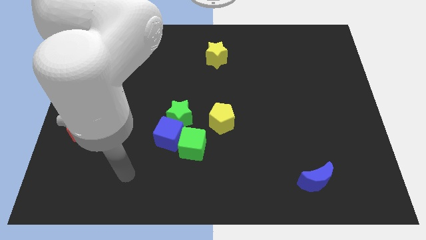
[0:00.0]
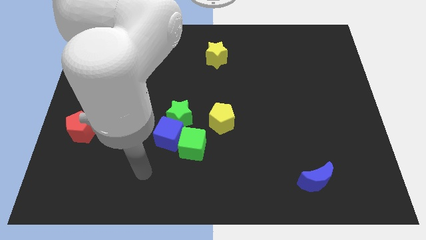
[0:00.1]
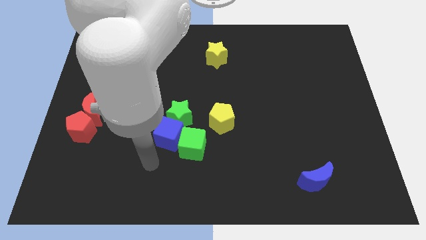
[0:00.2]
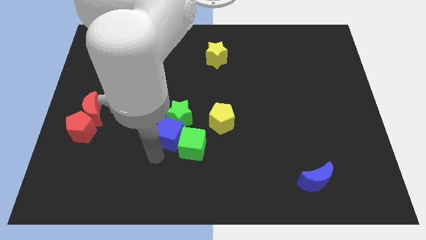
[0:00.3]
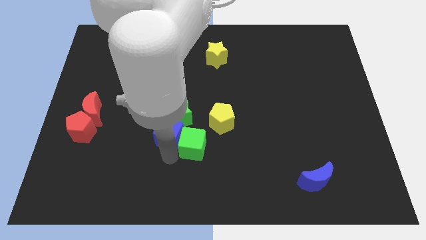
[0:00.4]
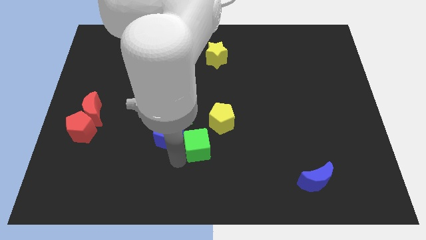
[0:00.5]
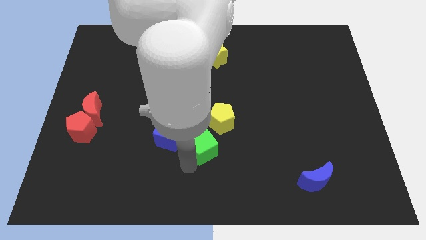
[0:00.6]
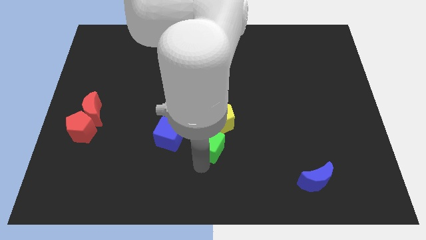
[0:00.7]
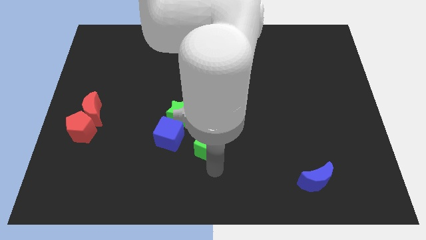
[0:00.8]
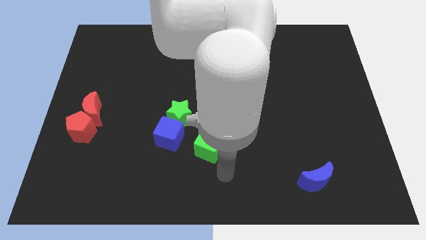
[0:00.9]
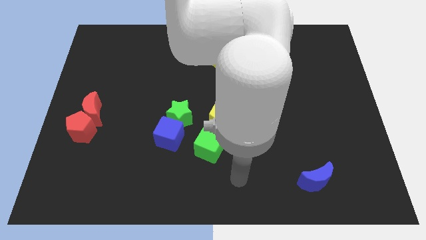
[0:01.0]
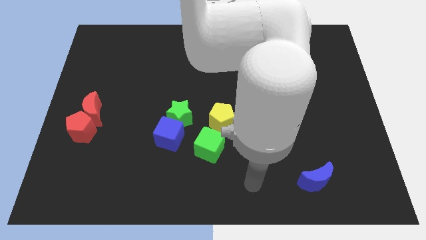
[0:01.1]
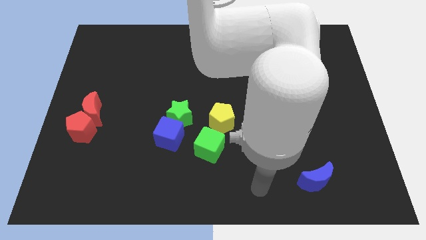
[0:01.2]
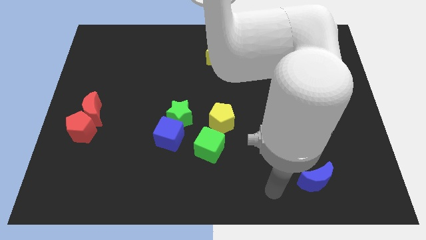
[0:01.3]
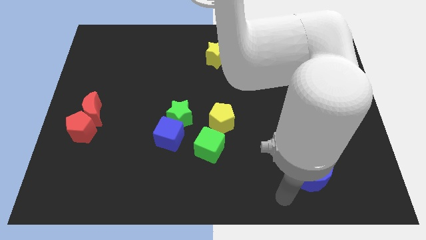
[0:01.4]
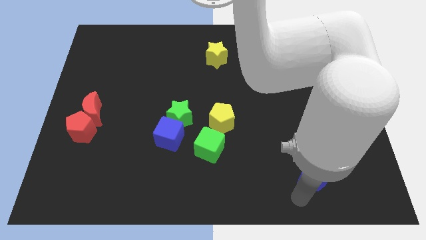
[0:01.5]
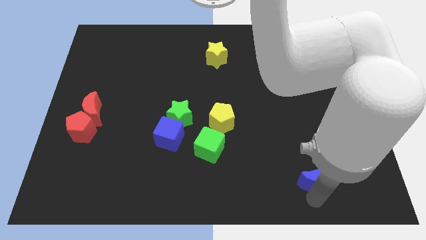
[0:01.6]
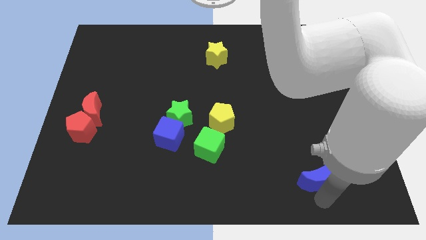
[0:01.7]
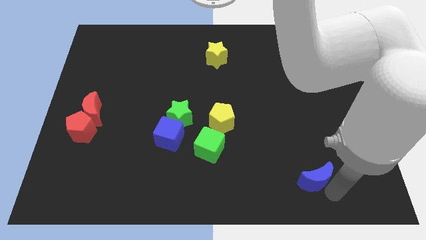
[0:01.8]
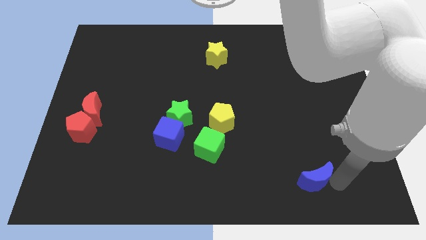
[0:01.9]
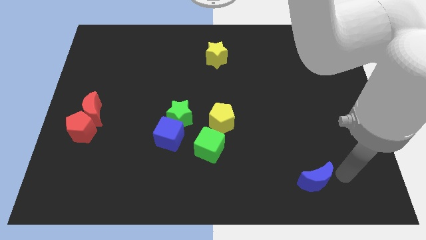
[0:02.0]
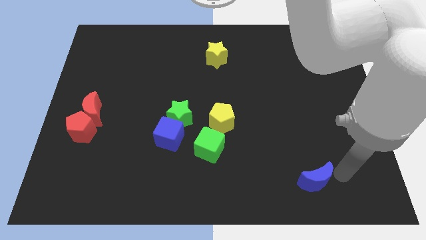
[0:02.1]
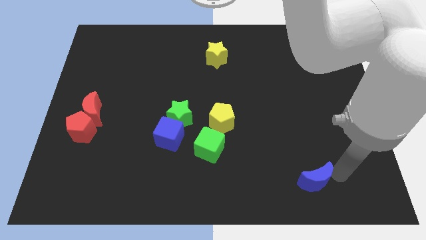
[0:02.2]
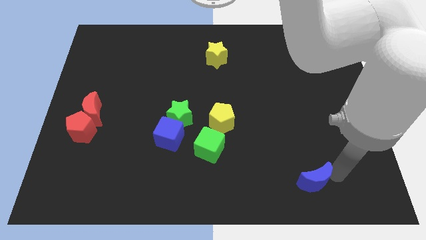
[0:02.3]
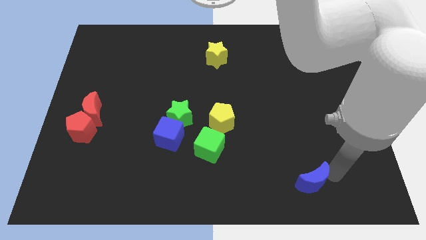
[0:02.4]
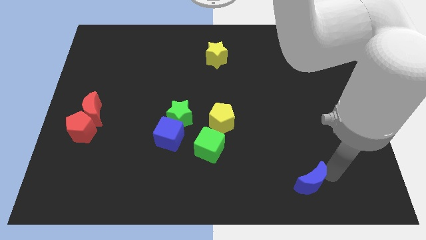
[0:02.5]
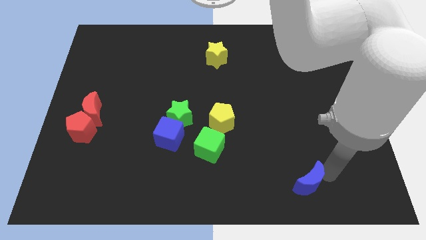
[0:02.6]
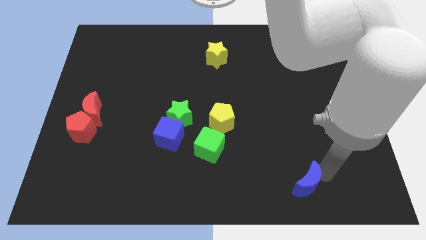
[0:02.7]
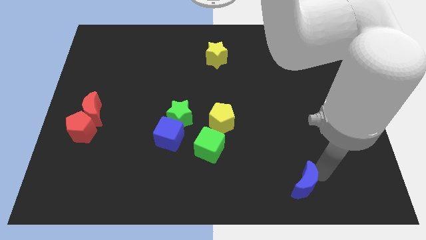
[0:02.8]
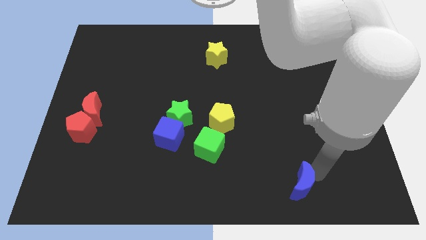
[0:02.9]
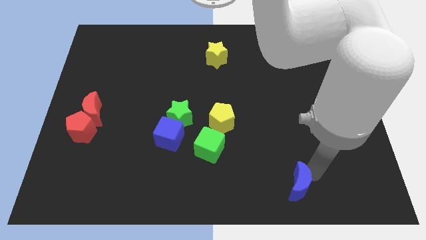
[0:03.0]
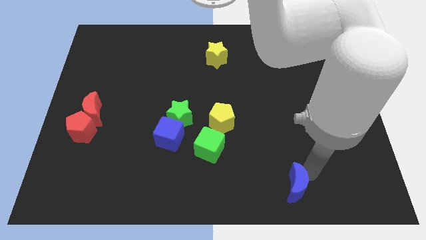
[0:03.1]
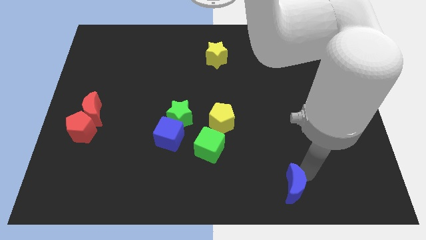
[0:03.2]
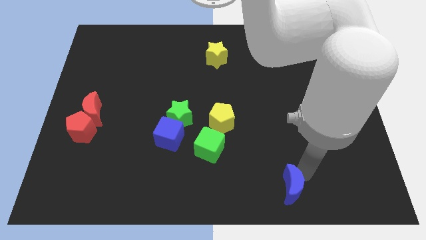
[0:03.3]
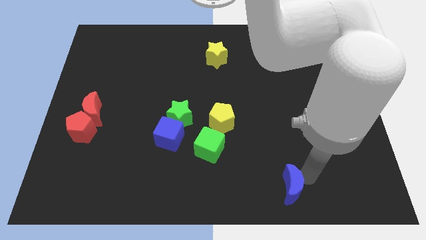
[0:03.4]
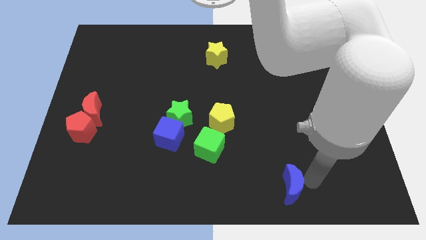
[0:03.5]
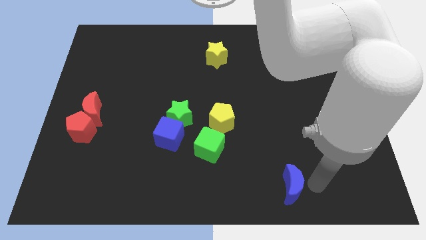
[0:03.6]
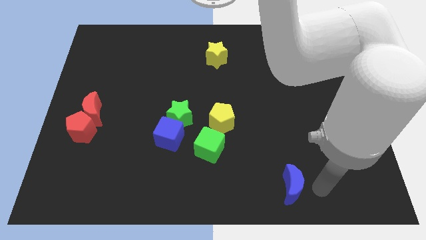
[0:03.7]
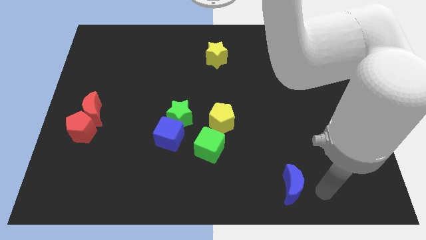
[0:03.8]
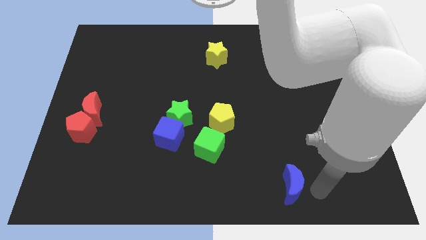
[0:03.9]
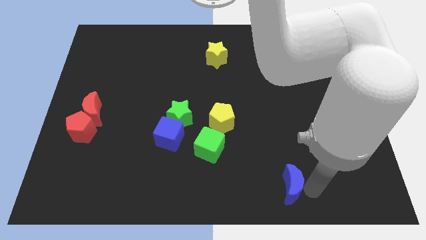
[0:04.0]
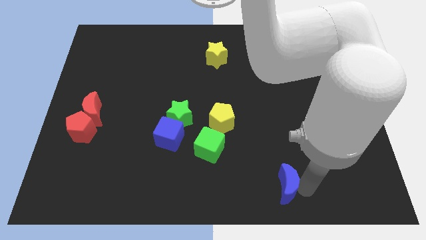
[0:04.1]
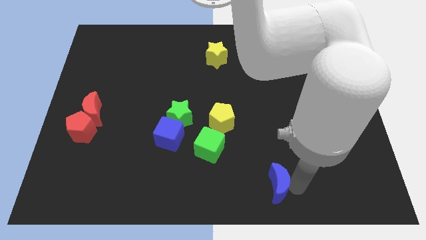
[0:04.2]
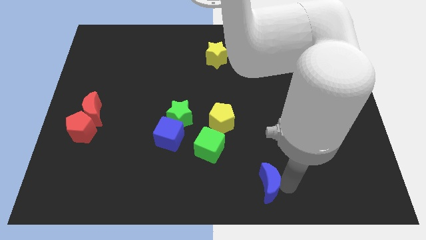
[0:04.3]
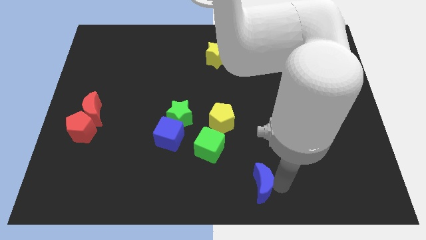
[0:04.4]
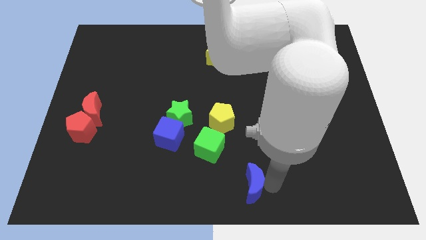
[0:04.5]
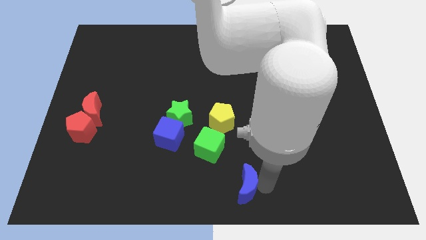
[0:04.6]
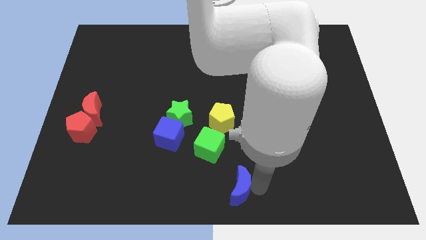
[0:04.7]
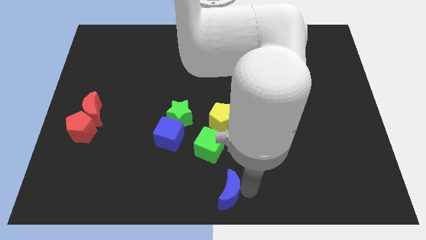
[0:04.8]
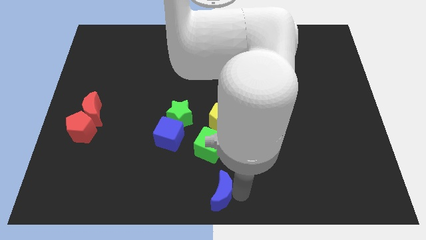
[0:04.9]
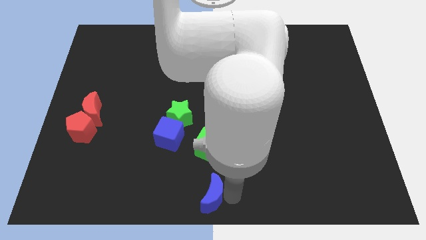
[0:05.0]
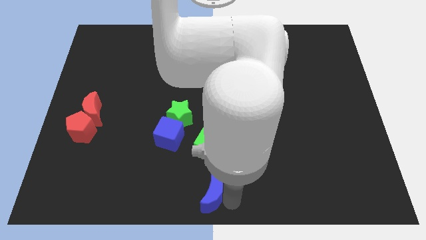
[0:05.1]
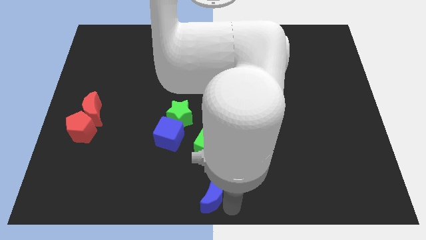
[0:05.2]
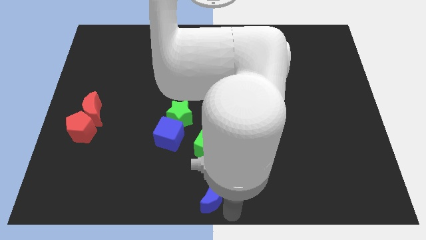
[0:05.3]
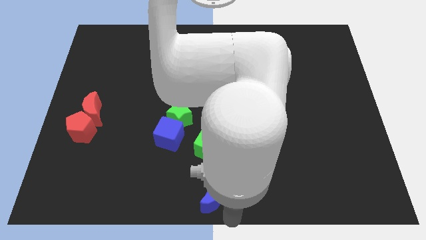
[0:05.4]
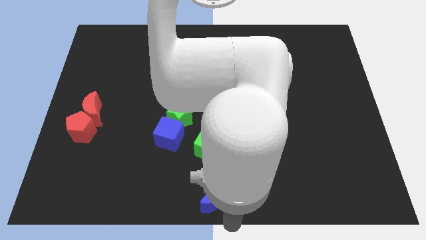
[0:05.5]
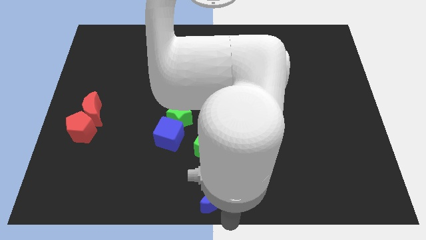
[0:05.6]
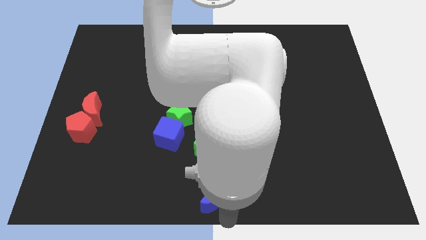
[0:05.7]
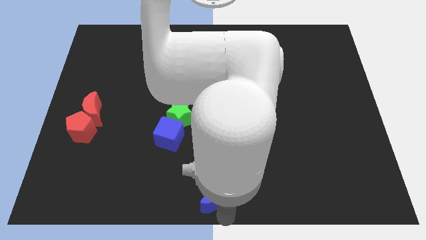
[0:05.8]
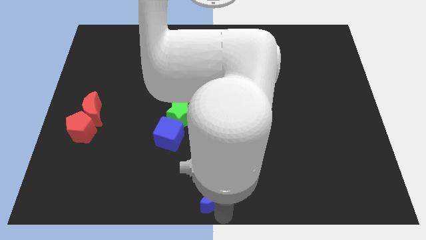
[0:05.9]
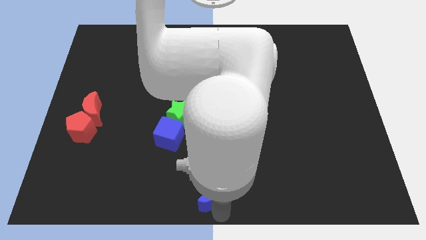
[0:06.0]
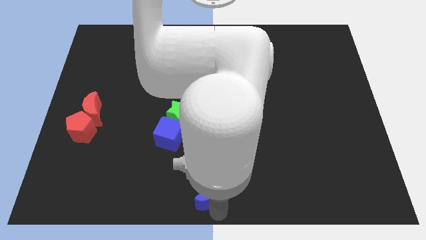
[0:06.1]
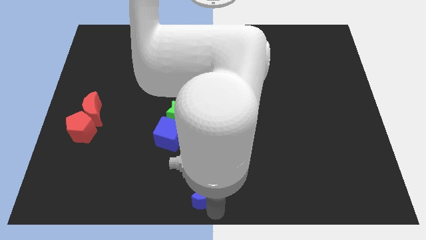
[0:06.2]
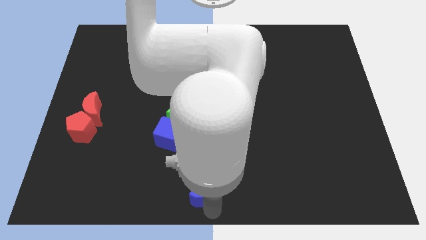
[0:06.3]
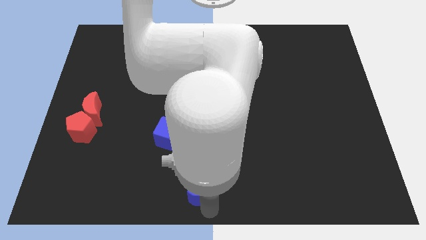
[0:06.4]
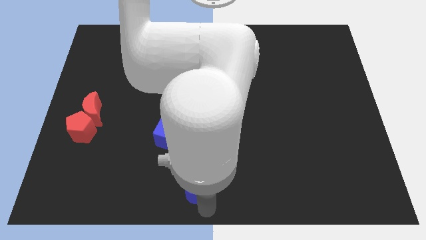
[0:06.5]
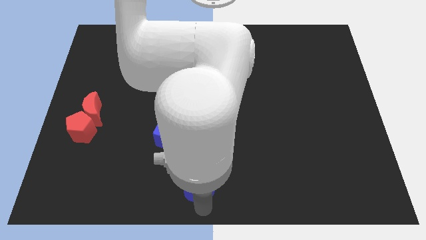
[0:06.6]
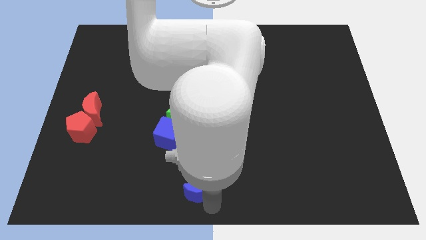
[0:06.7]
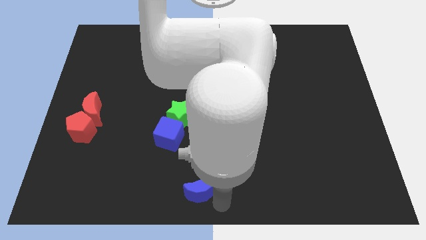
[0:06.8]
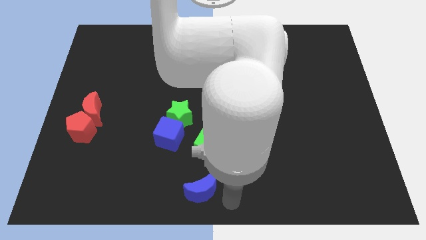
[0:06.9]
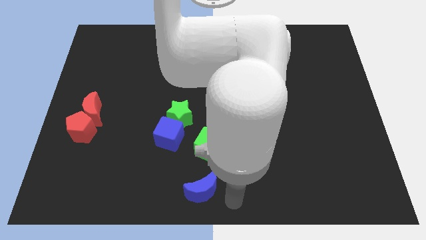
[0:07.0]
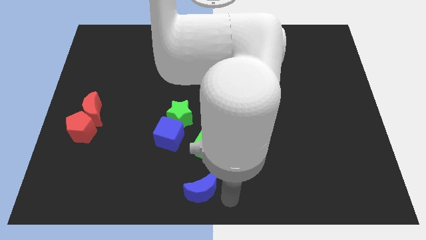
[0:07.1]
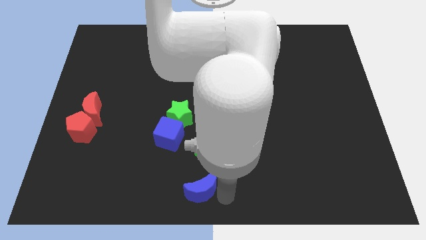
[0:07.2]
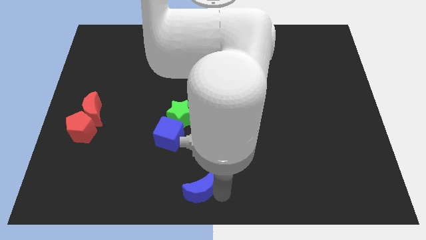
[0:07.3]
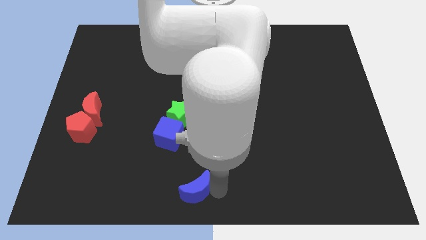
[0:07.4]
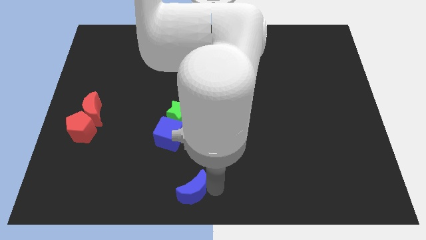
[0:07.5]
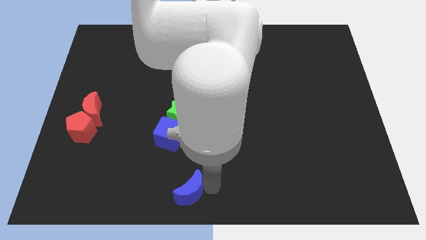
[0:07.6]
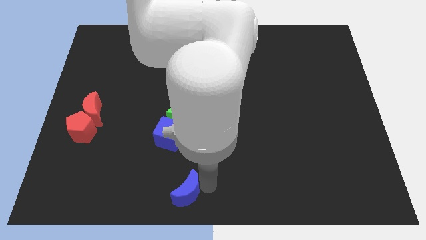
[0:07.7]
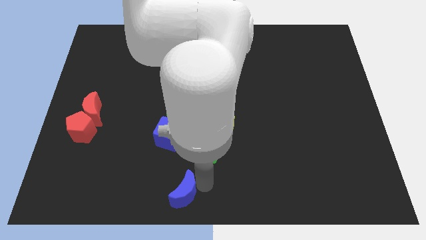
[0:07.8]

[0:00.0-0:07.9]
put the blue moon to the bottom side of the blue cube
